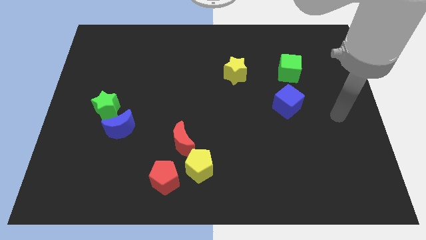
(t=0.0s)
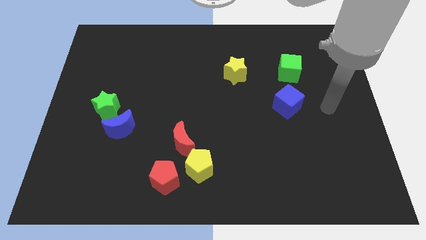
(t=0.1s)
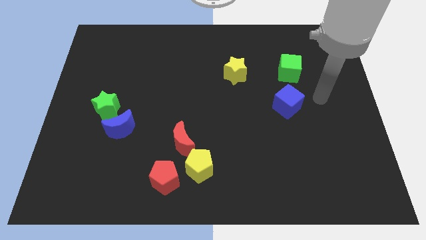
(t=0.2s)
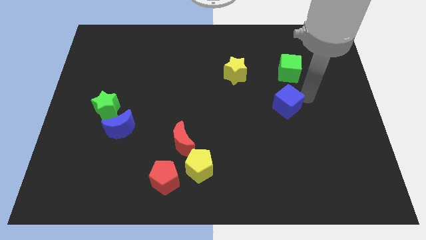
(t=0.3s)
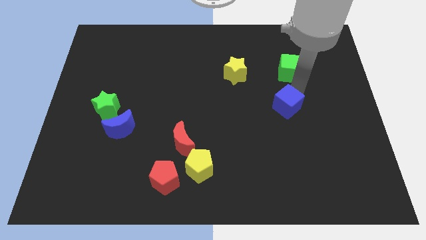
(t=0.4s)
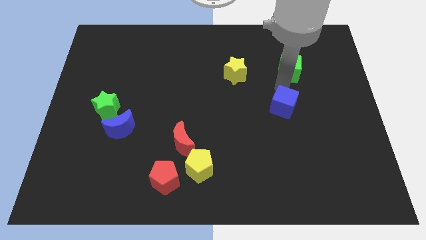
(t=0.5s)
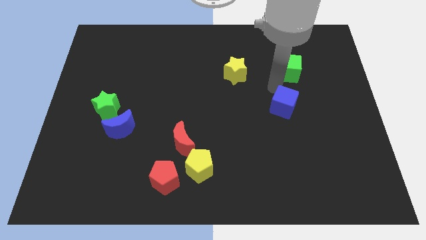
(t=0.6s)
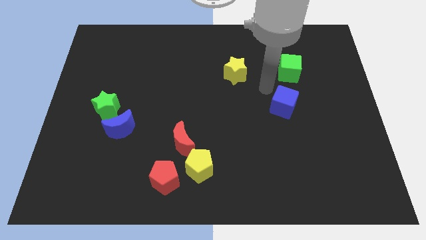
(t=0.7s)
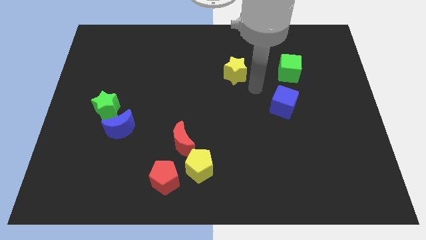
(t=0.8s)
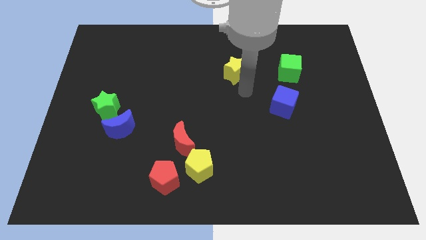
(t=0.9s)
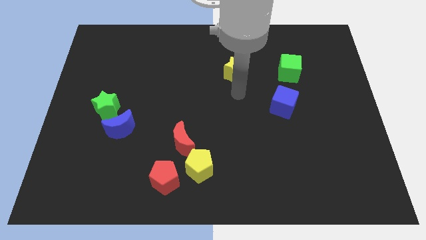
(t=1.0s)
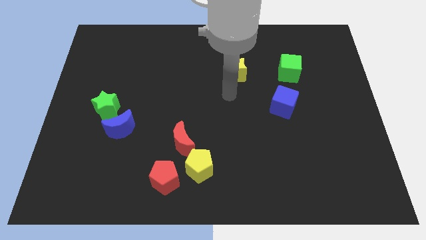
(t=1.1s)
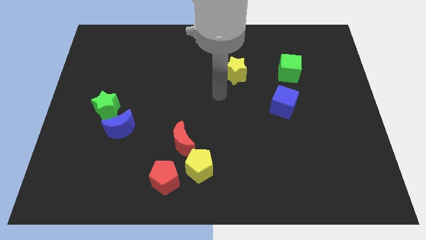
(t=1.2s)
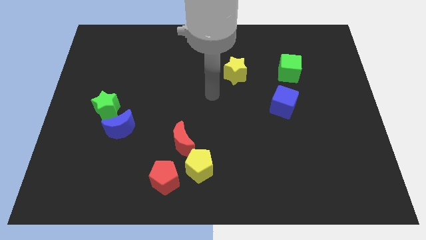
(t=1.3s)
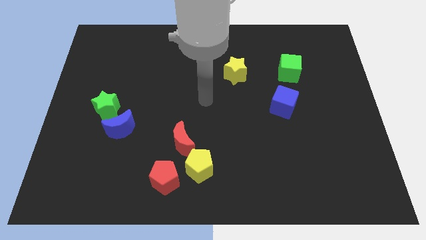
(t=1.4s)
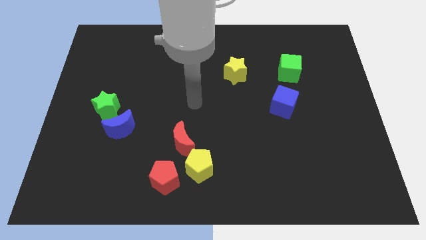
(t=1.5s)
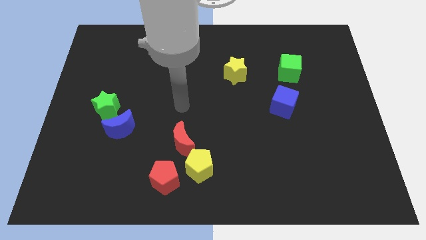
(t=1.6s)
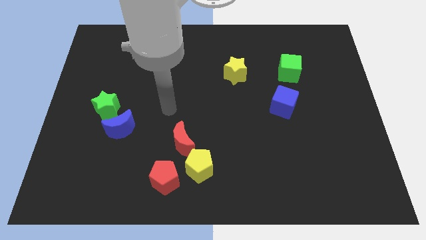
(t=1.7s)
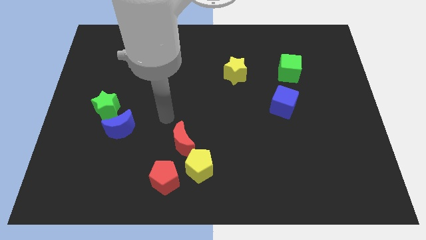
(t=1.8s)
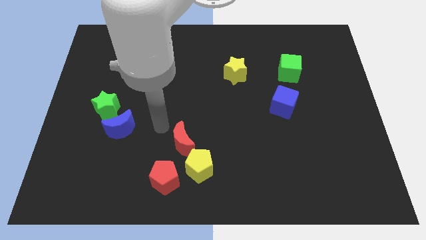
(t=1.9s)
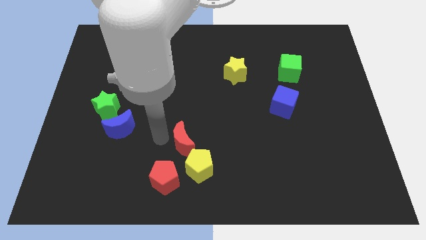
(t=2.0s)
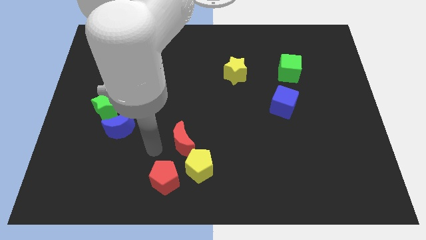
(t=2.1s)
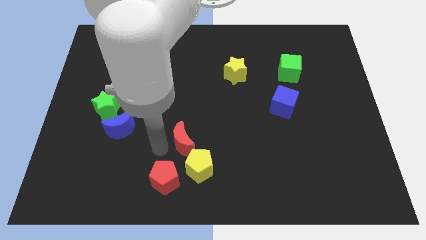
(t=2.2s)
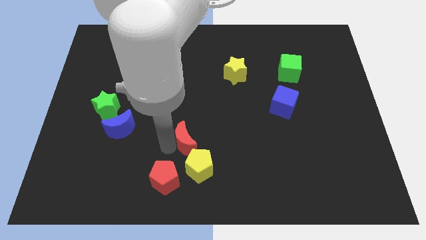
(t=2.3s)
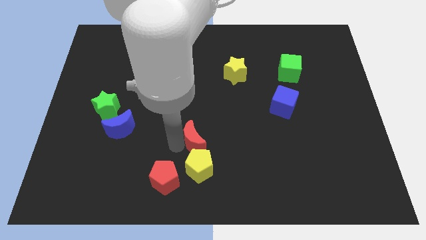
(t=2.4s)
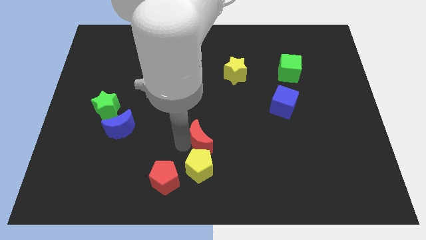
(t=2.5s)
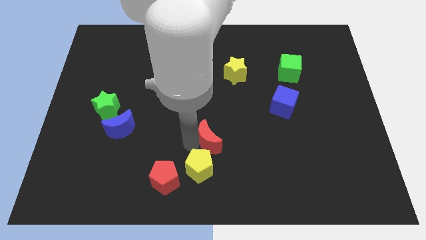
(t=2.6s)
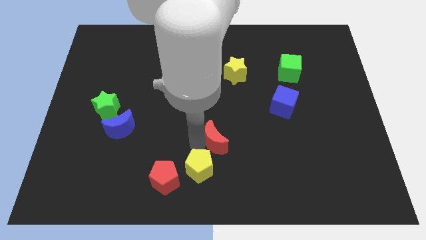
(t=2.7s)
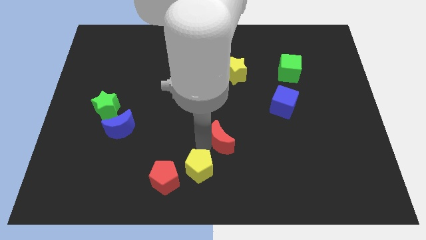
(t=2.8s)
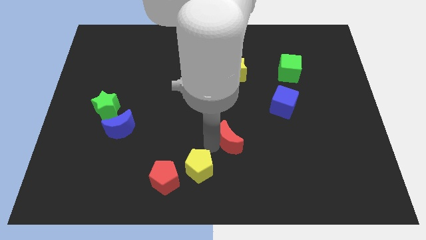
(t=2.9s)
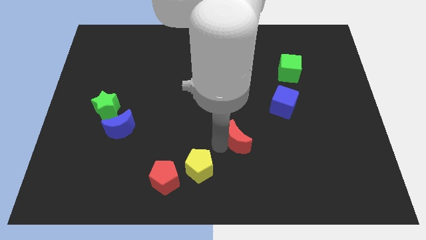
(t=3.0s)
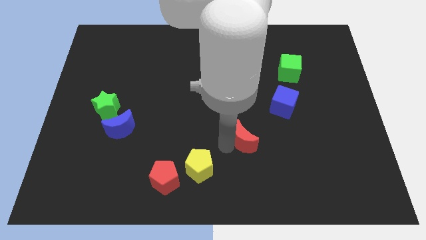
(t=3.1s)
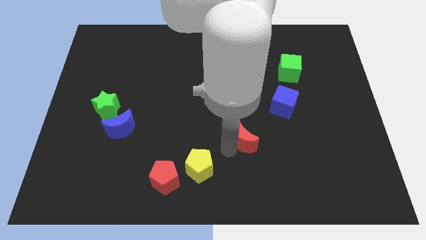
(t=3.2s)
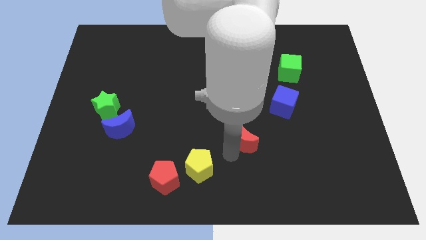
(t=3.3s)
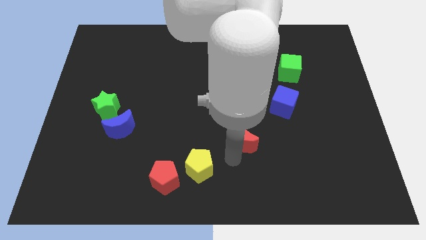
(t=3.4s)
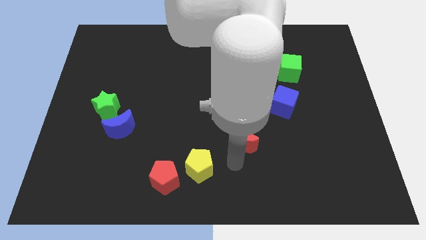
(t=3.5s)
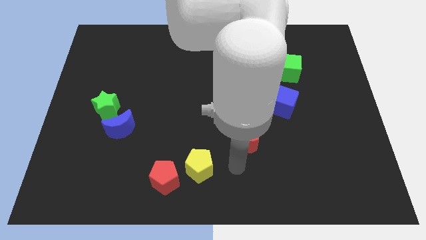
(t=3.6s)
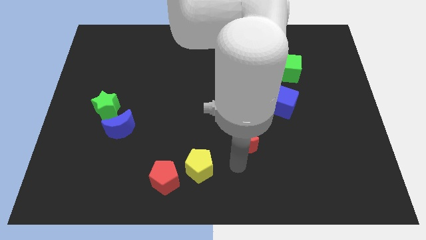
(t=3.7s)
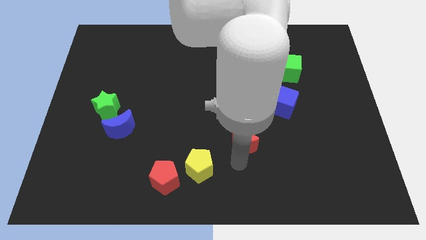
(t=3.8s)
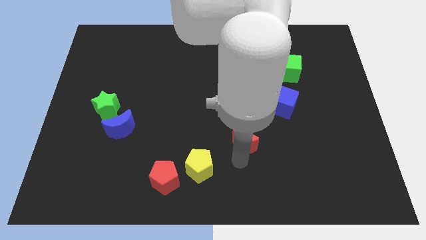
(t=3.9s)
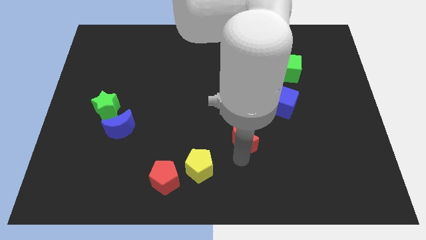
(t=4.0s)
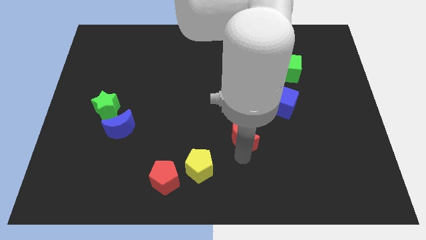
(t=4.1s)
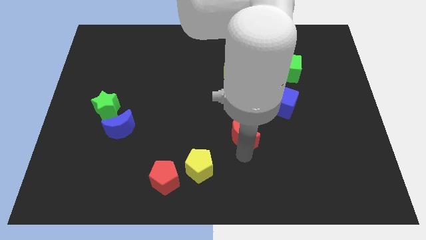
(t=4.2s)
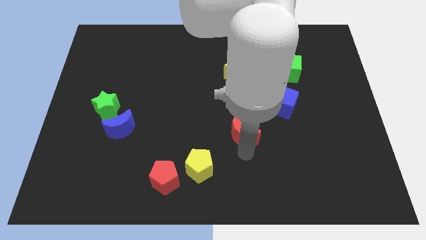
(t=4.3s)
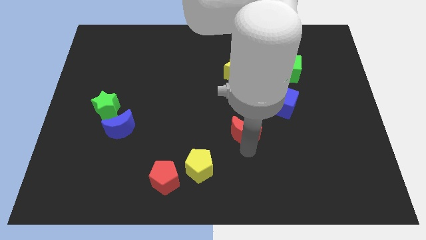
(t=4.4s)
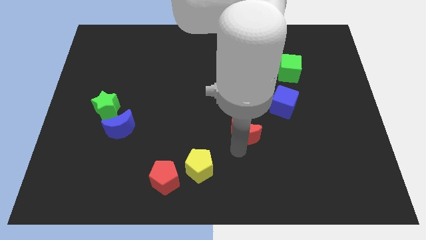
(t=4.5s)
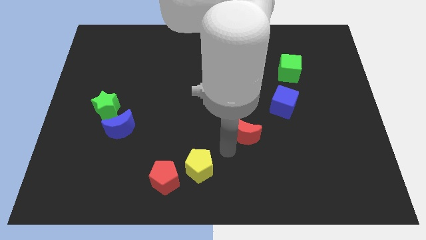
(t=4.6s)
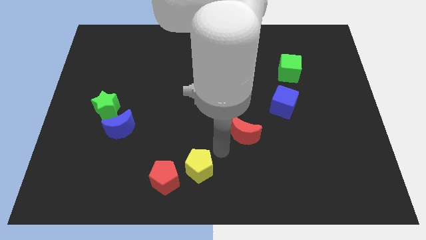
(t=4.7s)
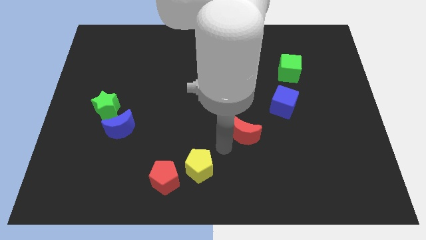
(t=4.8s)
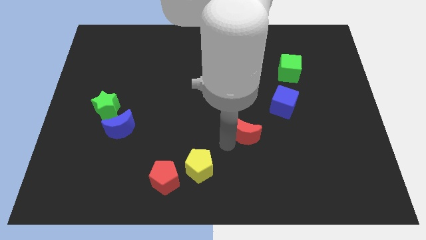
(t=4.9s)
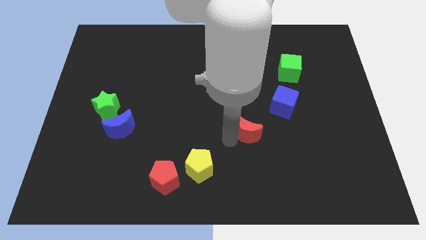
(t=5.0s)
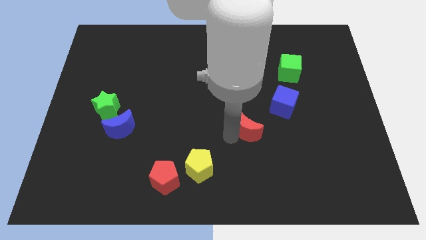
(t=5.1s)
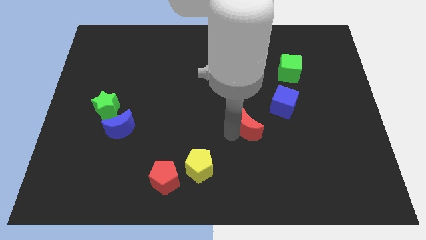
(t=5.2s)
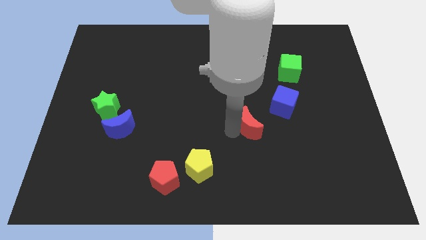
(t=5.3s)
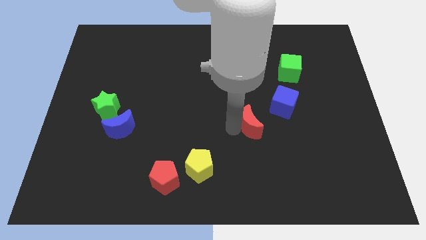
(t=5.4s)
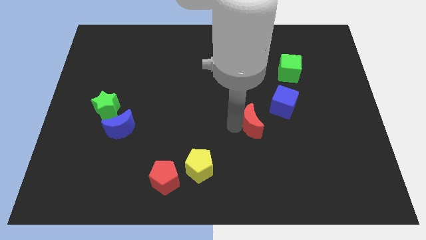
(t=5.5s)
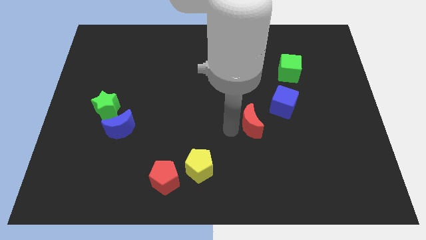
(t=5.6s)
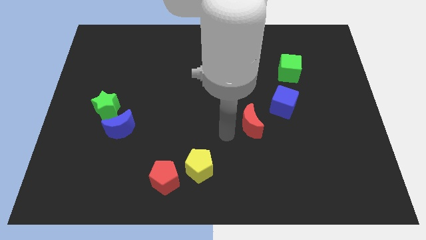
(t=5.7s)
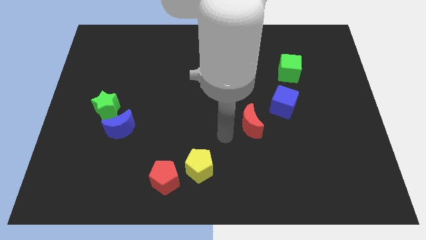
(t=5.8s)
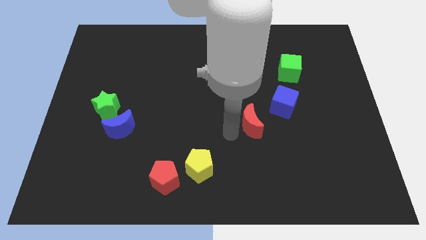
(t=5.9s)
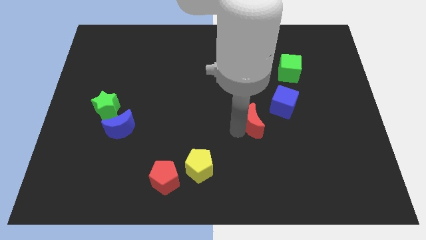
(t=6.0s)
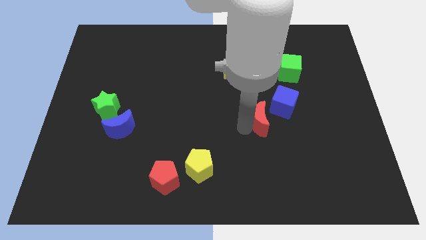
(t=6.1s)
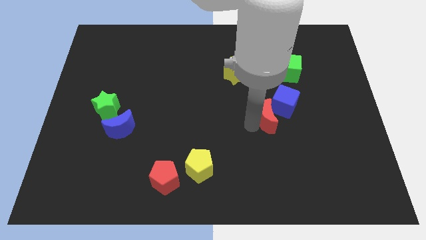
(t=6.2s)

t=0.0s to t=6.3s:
push the red moon towards the blue cube

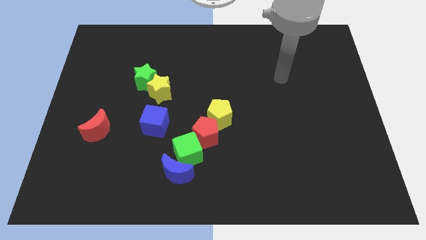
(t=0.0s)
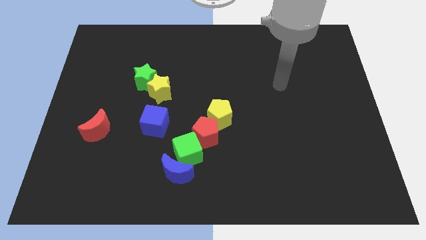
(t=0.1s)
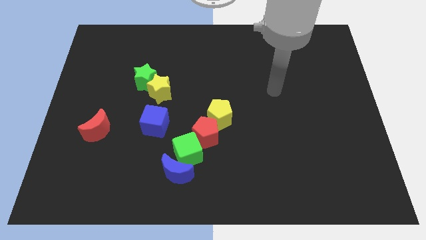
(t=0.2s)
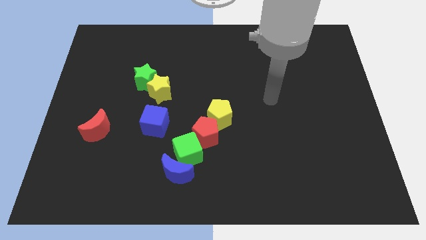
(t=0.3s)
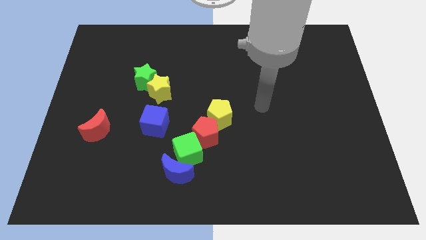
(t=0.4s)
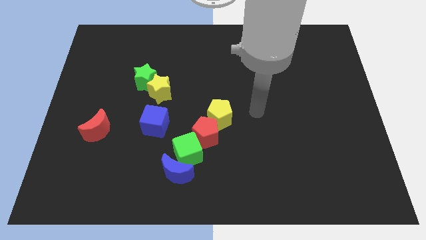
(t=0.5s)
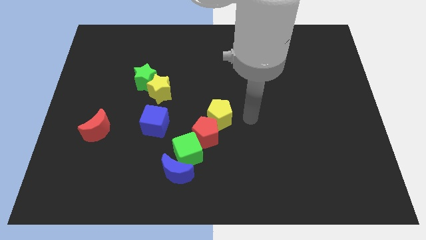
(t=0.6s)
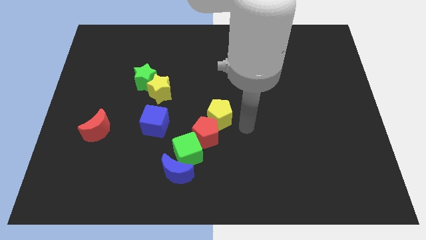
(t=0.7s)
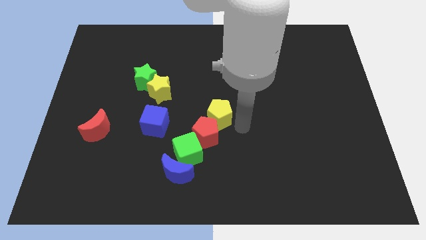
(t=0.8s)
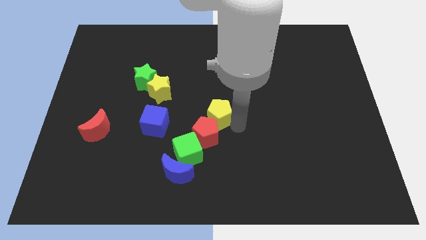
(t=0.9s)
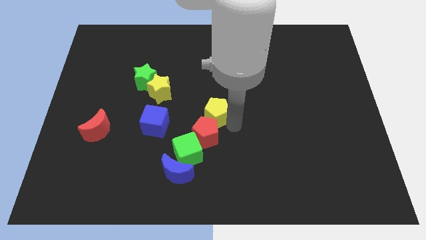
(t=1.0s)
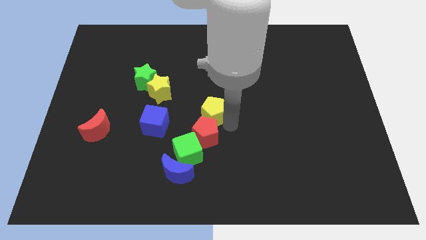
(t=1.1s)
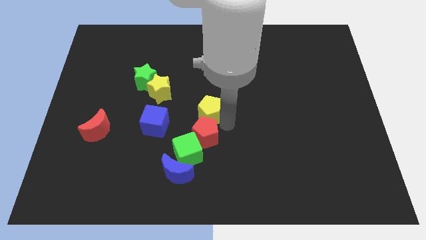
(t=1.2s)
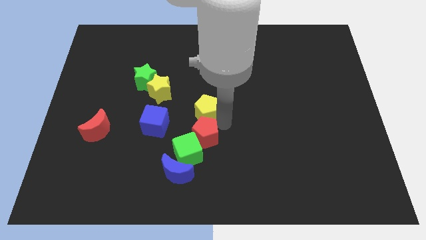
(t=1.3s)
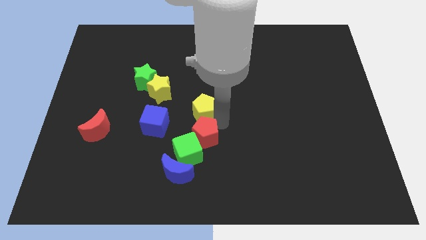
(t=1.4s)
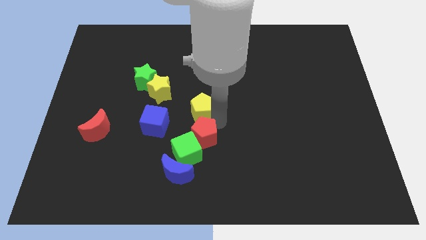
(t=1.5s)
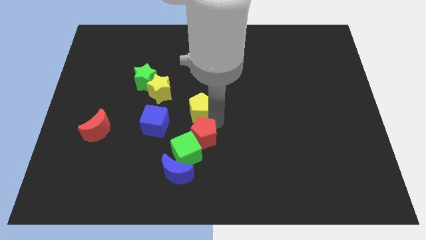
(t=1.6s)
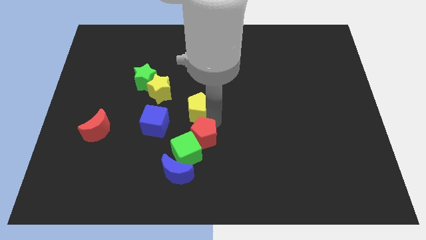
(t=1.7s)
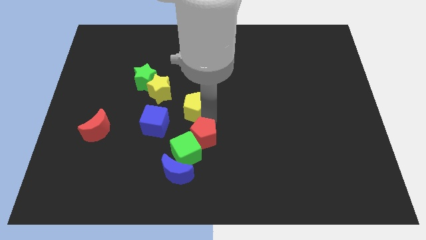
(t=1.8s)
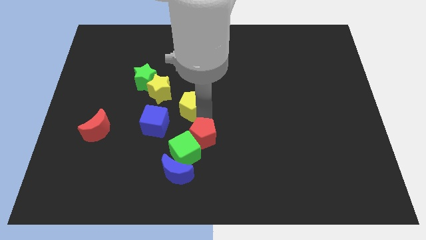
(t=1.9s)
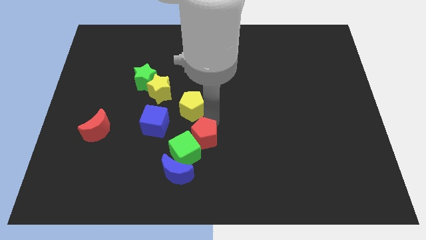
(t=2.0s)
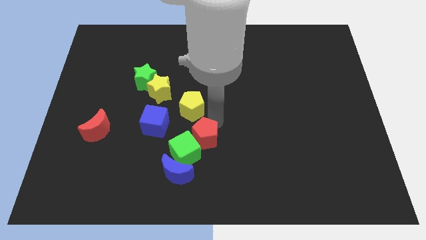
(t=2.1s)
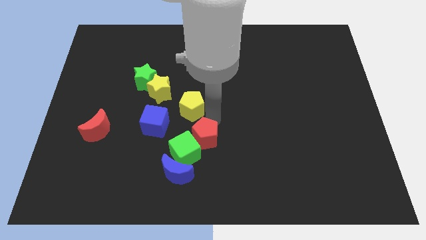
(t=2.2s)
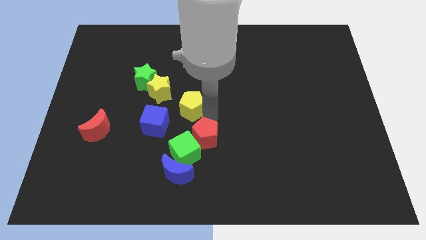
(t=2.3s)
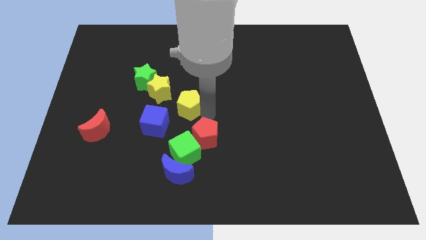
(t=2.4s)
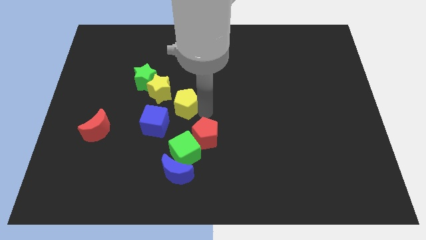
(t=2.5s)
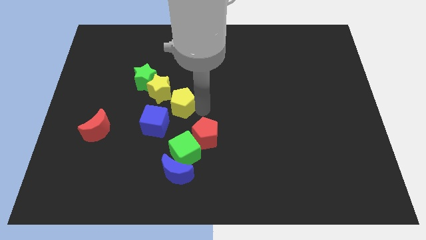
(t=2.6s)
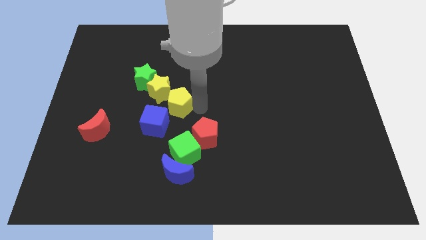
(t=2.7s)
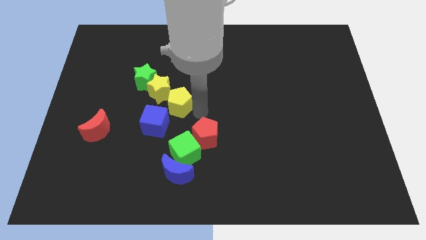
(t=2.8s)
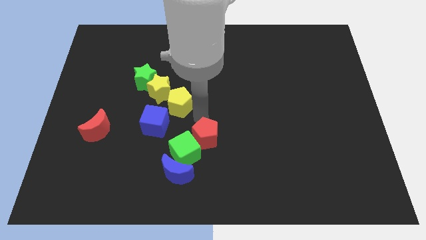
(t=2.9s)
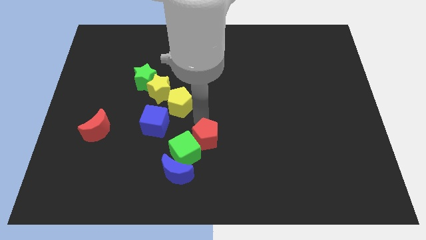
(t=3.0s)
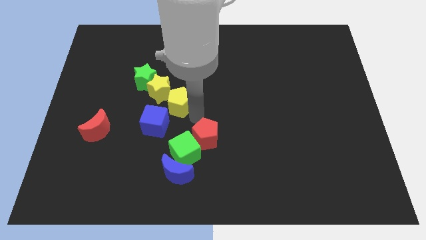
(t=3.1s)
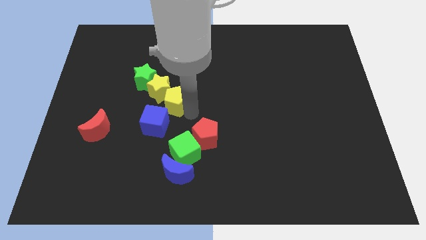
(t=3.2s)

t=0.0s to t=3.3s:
put the yellow pentagon towards the yellow star
